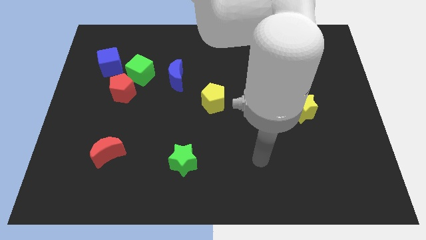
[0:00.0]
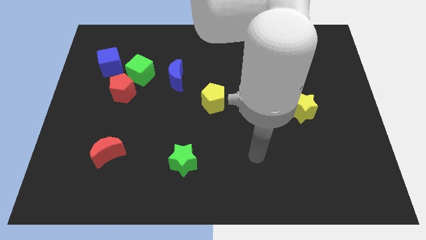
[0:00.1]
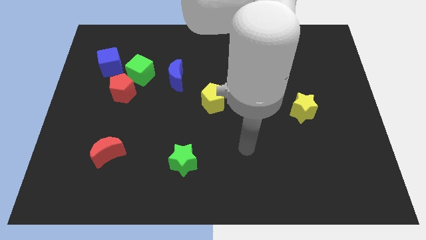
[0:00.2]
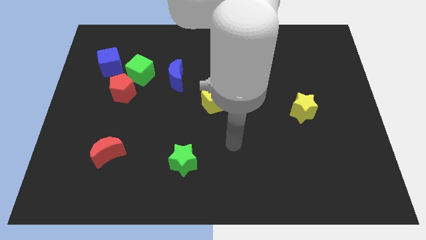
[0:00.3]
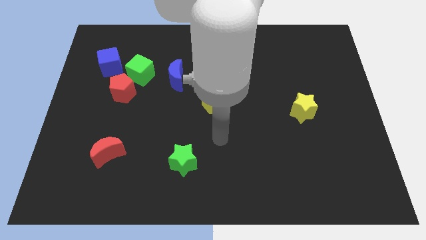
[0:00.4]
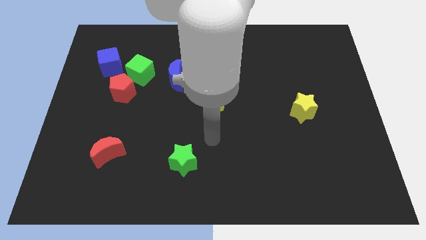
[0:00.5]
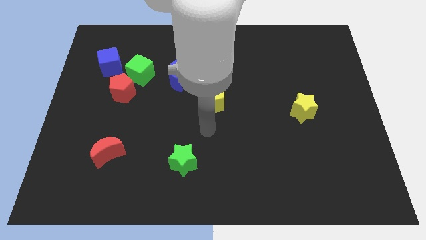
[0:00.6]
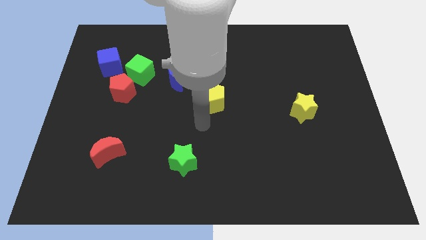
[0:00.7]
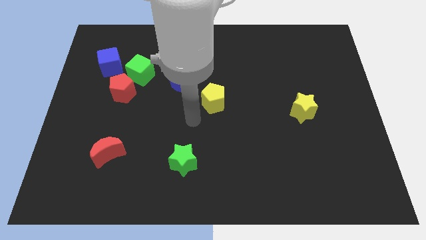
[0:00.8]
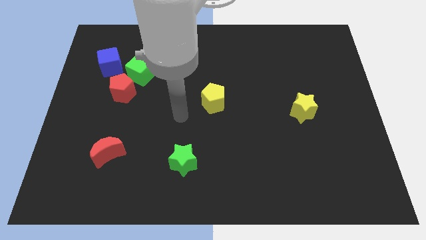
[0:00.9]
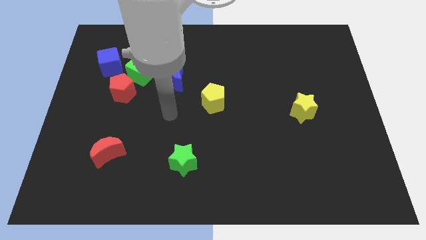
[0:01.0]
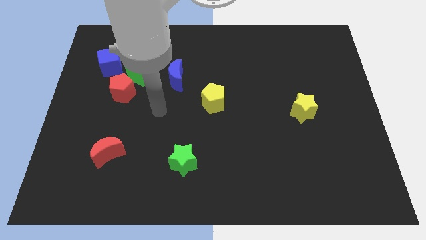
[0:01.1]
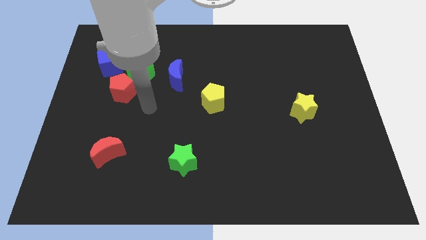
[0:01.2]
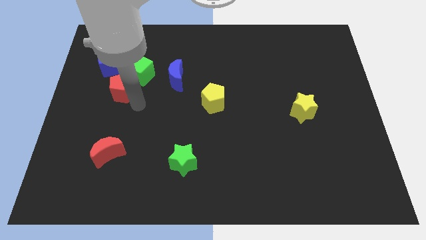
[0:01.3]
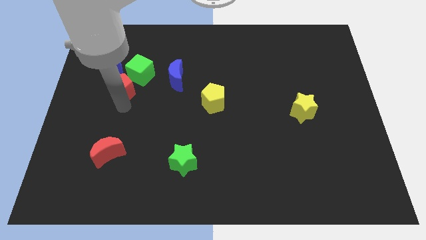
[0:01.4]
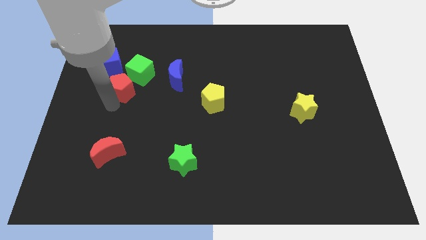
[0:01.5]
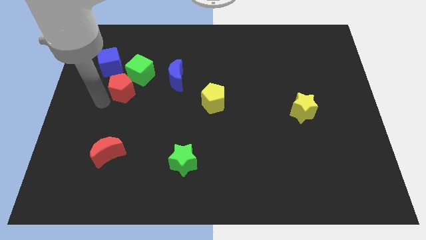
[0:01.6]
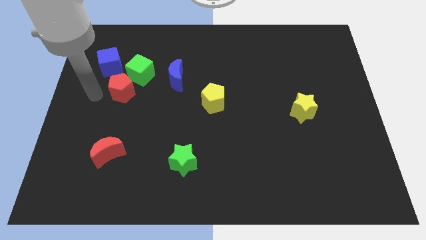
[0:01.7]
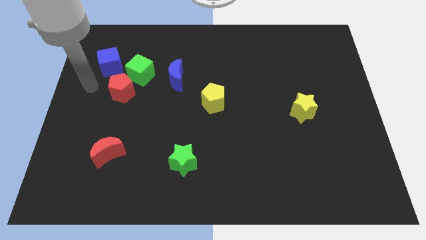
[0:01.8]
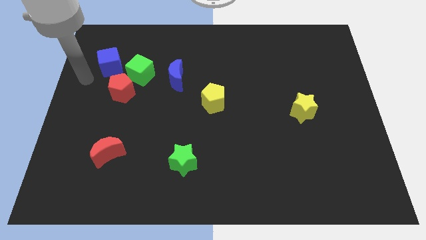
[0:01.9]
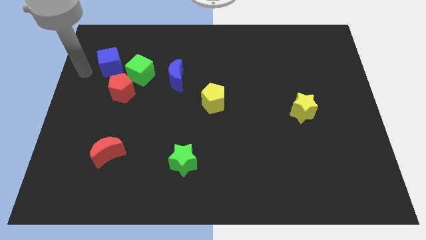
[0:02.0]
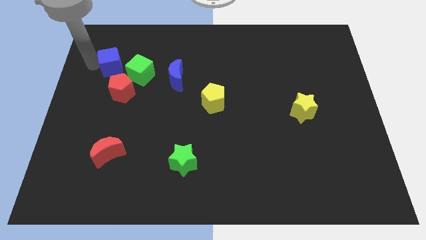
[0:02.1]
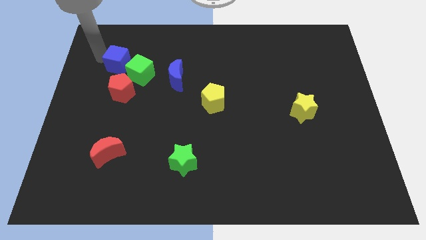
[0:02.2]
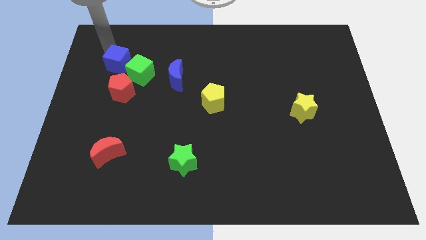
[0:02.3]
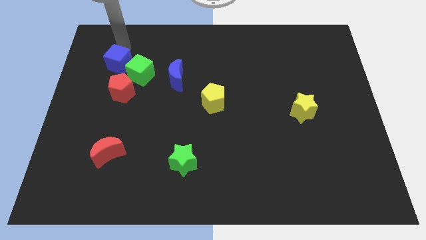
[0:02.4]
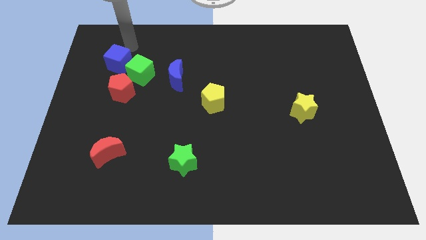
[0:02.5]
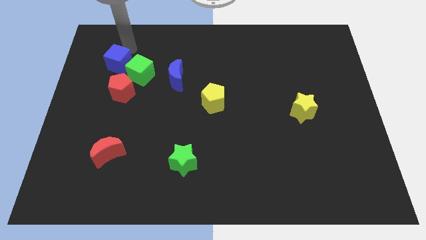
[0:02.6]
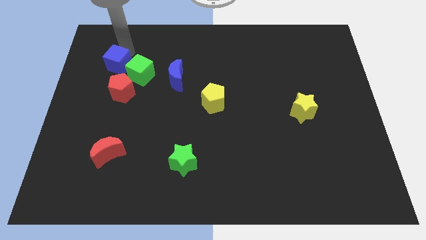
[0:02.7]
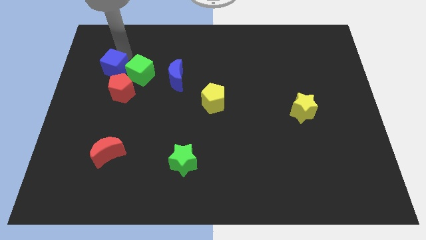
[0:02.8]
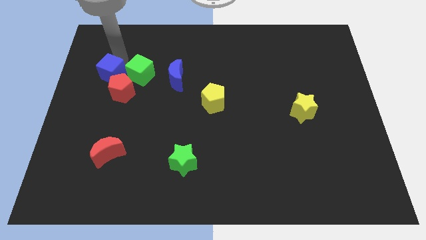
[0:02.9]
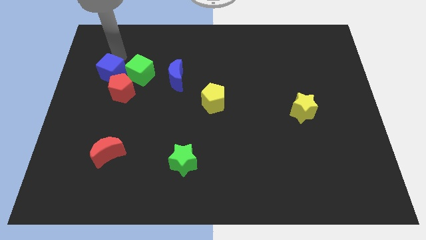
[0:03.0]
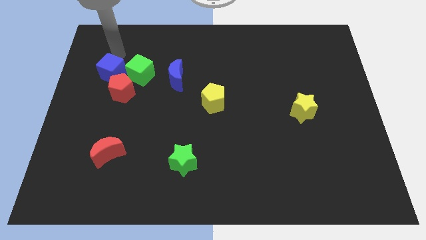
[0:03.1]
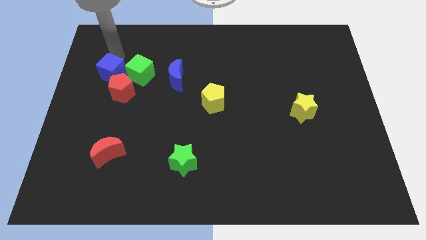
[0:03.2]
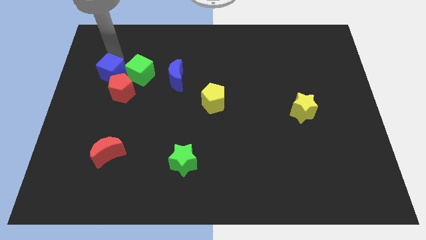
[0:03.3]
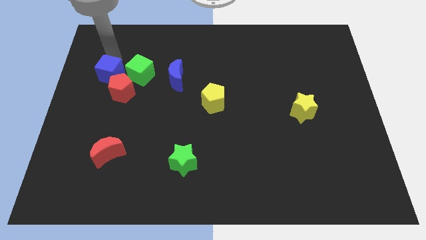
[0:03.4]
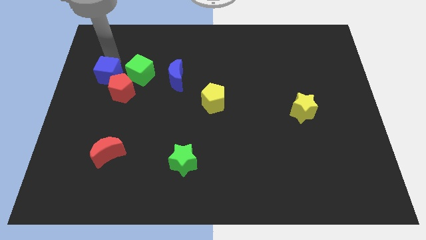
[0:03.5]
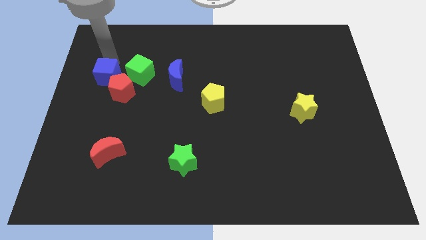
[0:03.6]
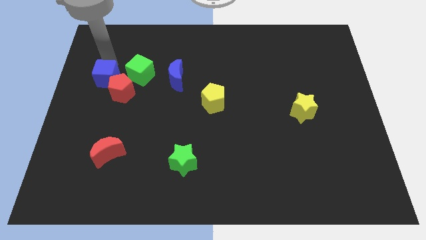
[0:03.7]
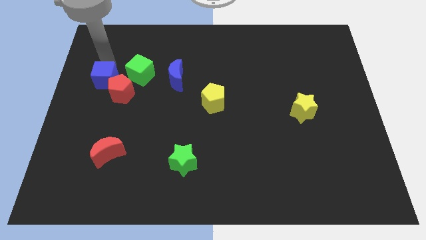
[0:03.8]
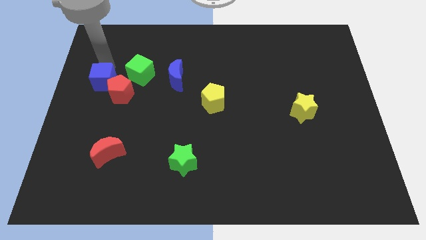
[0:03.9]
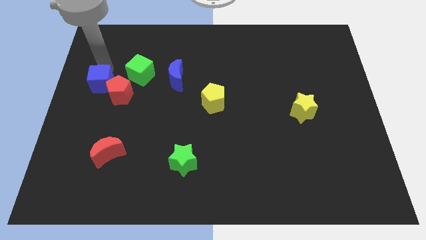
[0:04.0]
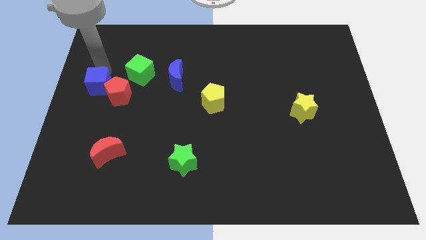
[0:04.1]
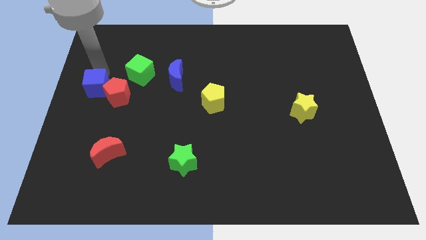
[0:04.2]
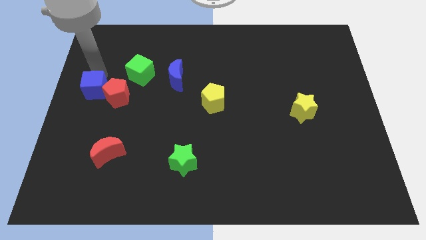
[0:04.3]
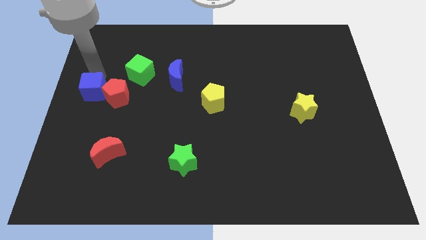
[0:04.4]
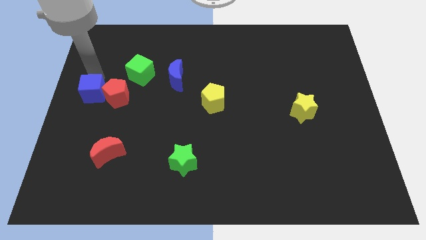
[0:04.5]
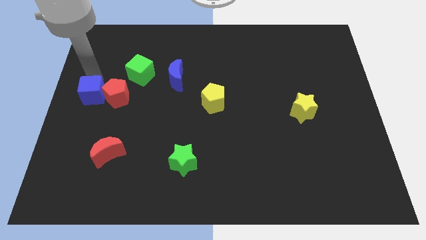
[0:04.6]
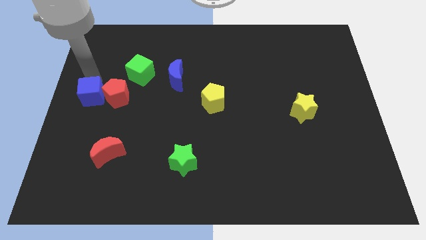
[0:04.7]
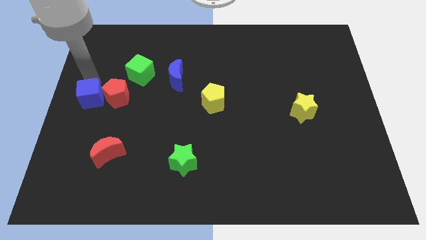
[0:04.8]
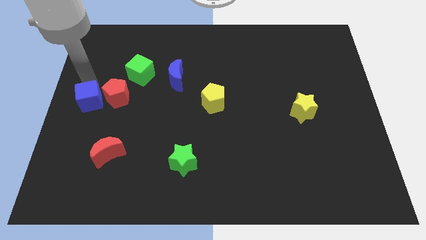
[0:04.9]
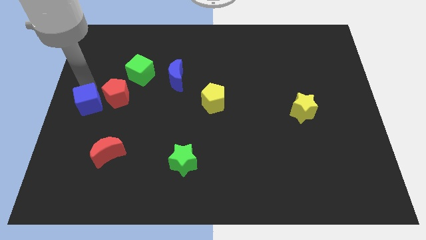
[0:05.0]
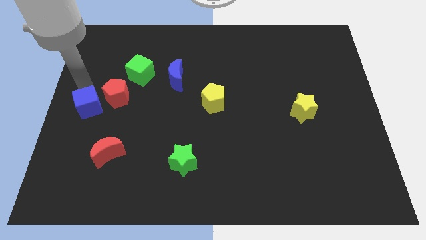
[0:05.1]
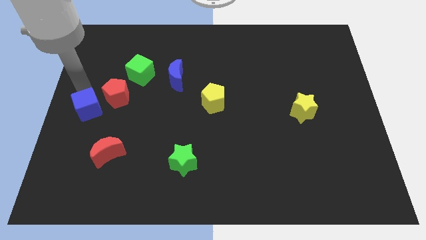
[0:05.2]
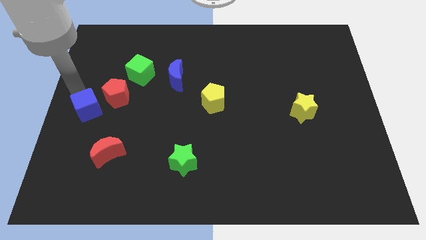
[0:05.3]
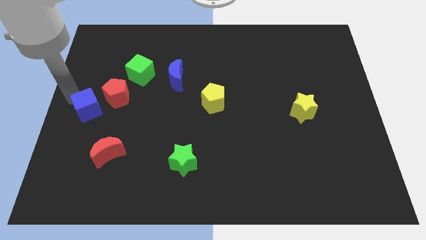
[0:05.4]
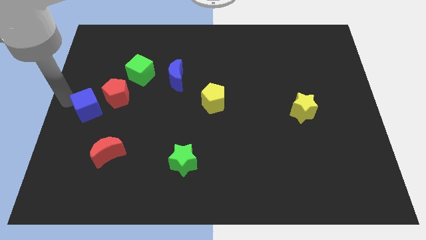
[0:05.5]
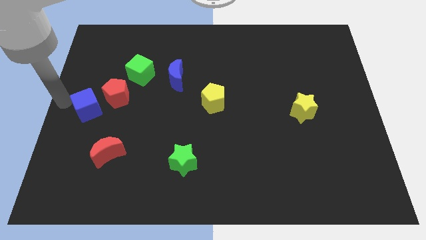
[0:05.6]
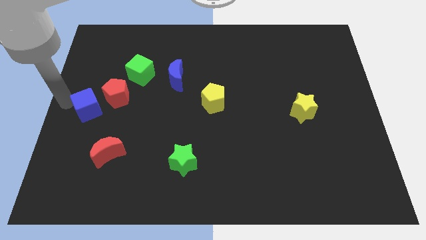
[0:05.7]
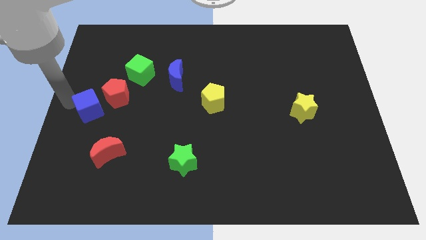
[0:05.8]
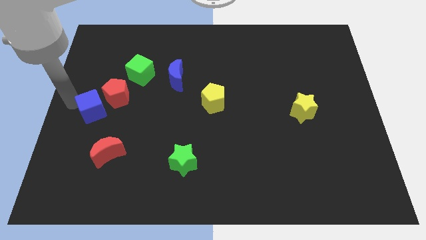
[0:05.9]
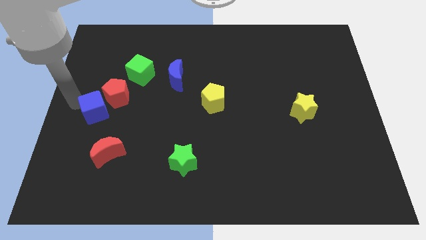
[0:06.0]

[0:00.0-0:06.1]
put the blue cube to the top side of the red moon
